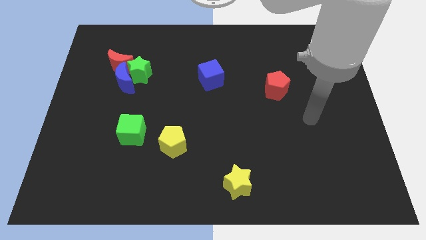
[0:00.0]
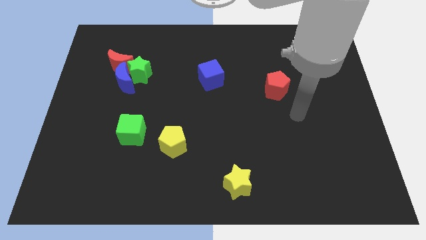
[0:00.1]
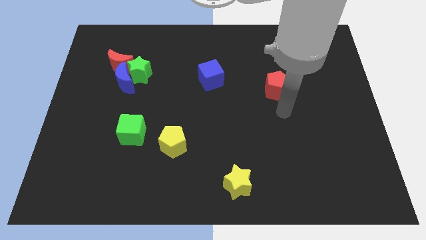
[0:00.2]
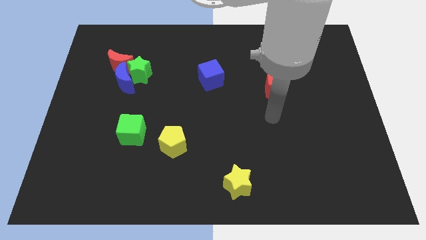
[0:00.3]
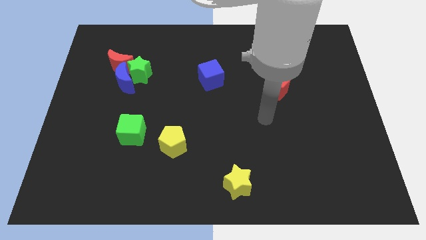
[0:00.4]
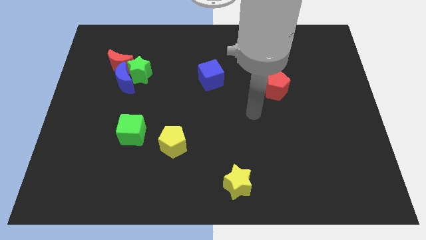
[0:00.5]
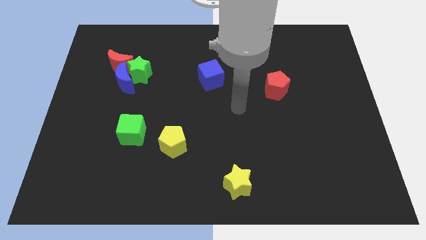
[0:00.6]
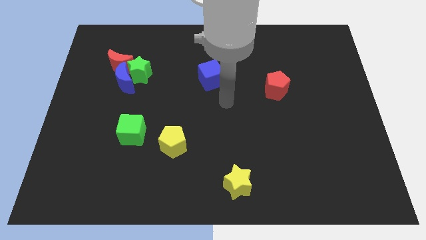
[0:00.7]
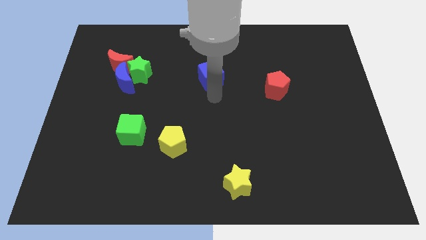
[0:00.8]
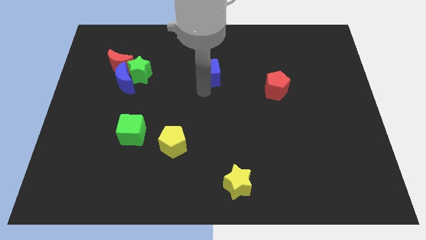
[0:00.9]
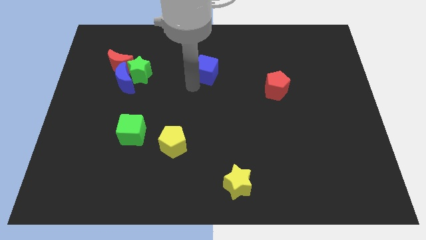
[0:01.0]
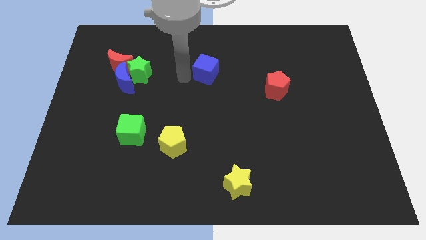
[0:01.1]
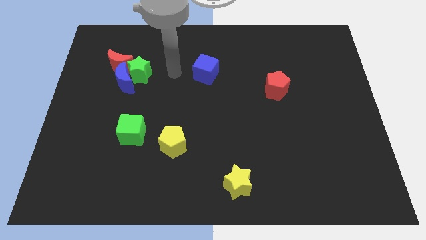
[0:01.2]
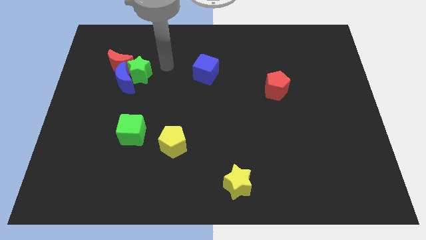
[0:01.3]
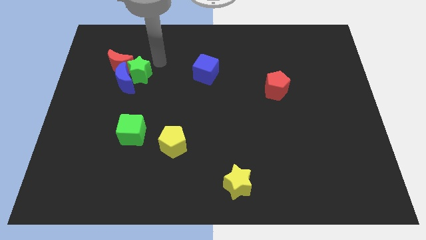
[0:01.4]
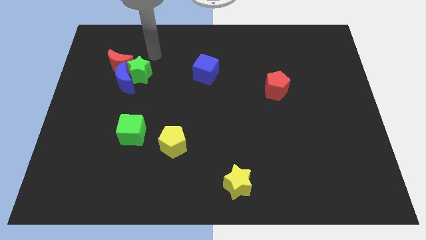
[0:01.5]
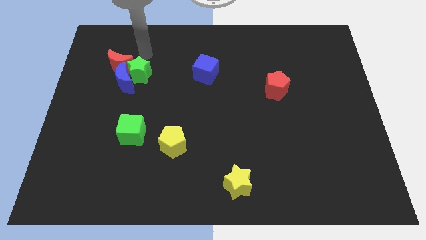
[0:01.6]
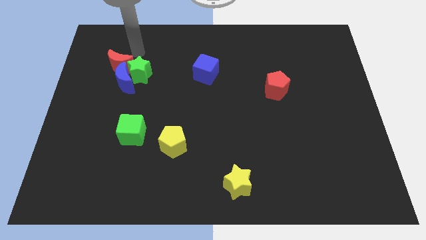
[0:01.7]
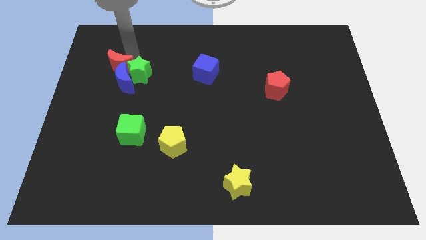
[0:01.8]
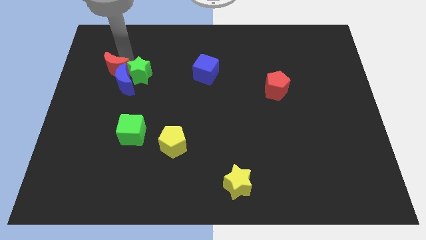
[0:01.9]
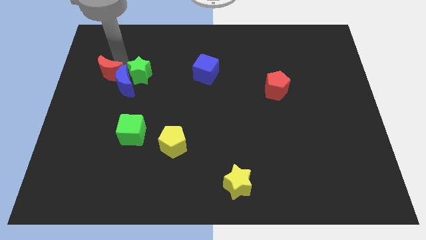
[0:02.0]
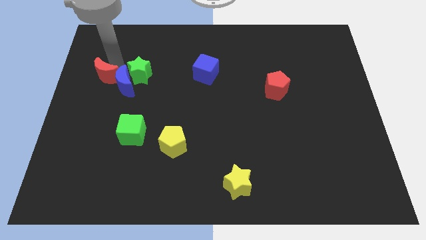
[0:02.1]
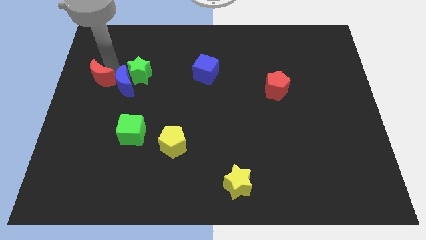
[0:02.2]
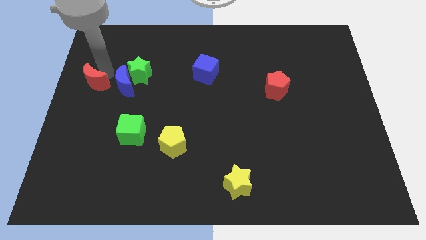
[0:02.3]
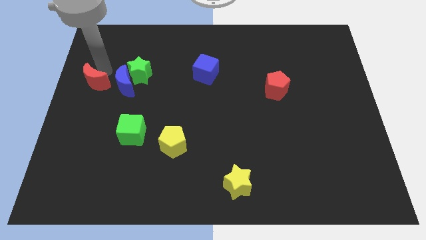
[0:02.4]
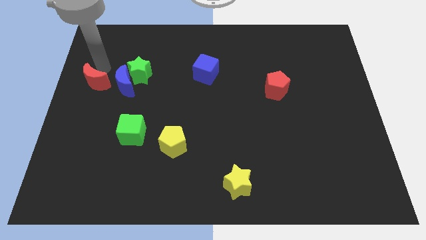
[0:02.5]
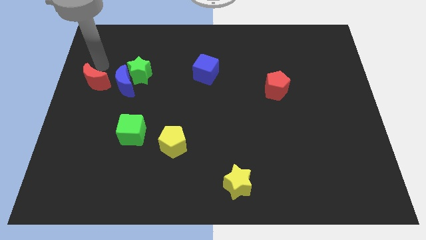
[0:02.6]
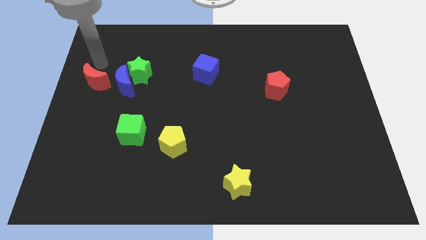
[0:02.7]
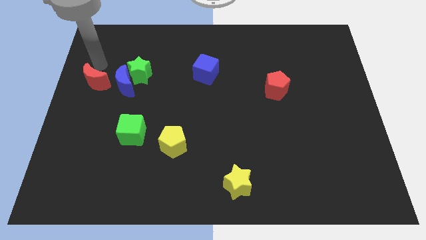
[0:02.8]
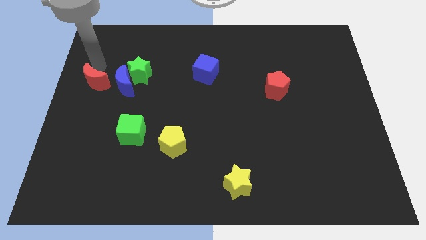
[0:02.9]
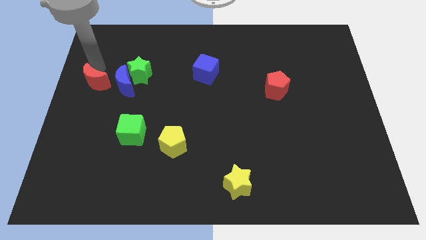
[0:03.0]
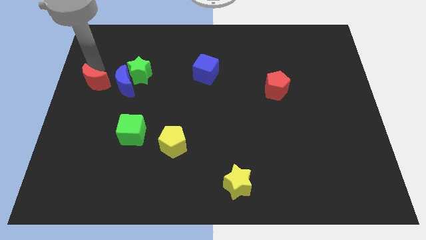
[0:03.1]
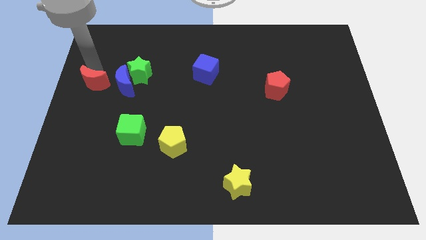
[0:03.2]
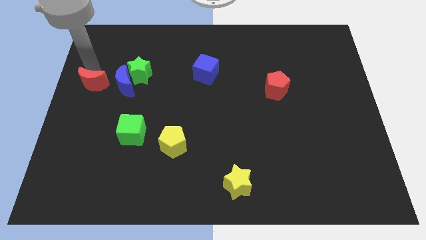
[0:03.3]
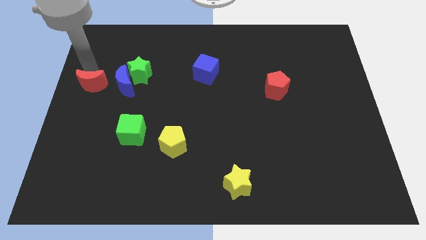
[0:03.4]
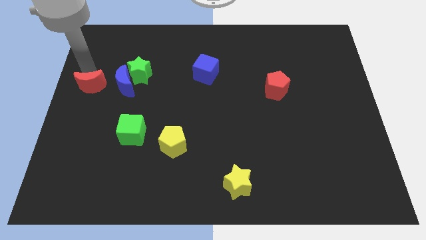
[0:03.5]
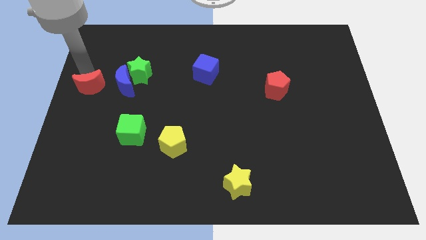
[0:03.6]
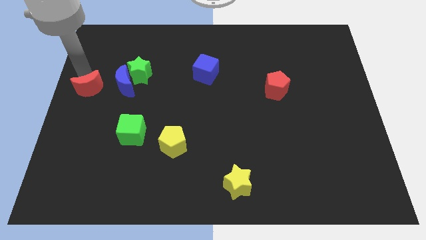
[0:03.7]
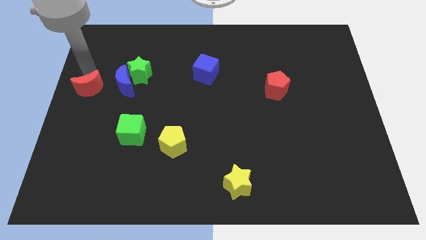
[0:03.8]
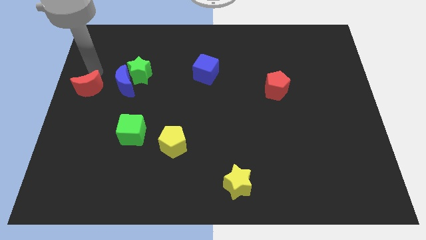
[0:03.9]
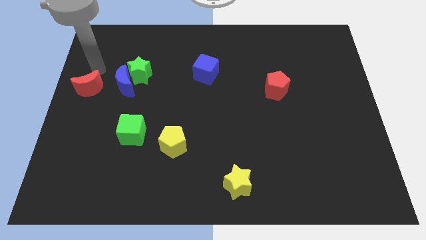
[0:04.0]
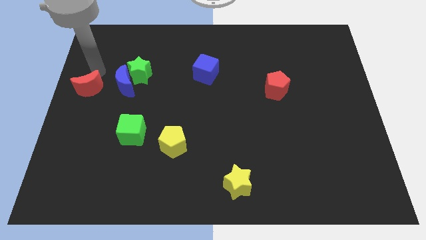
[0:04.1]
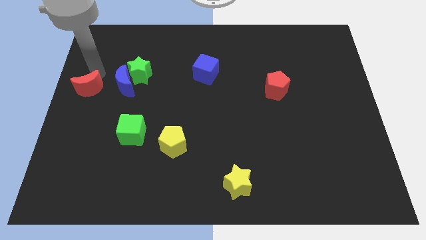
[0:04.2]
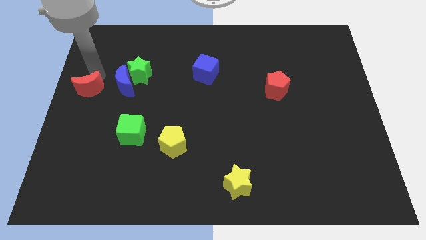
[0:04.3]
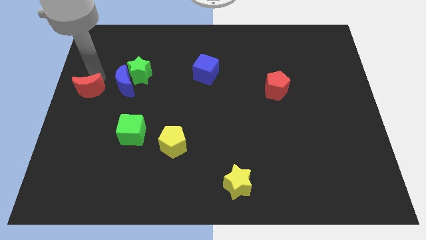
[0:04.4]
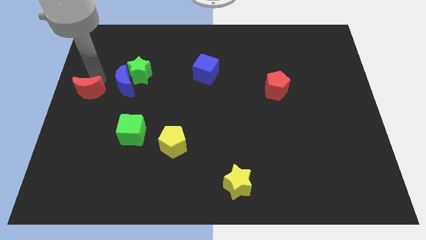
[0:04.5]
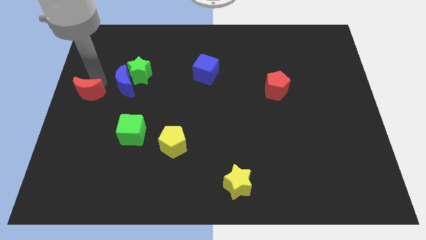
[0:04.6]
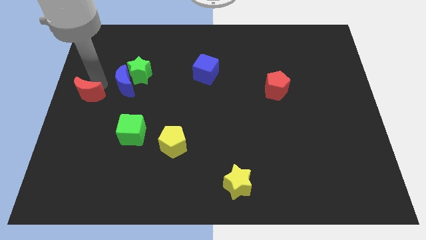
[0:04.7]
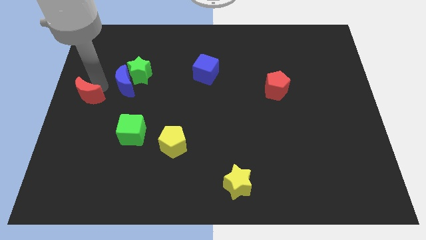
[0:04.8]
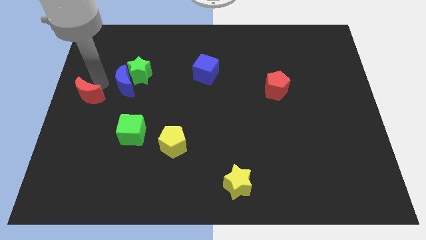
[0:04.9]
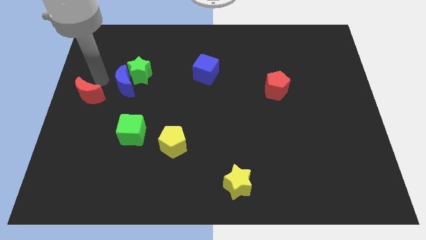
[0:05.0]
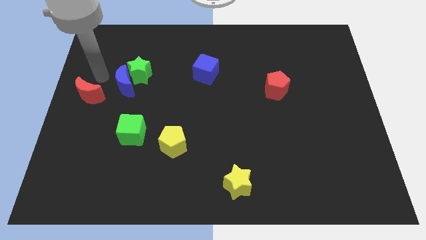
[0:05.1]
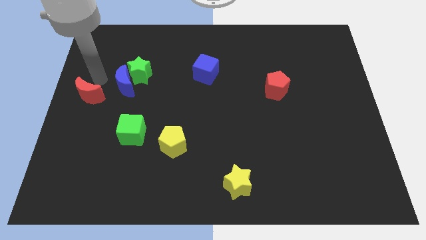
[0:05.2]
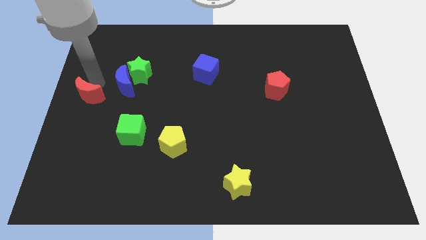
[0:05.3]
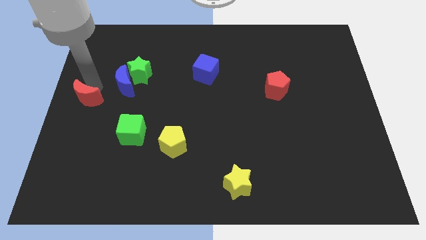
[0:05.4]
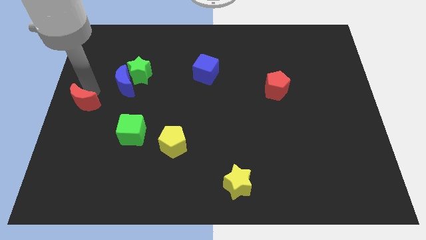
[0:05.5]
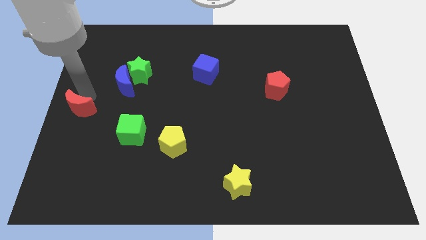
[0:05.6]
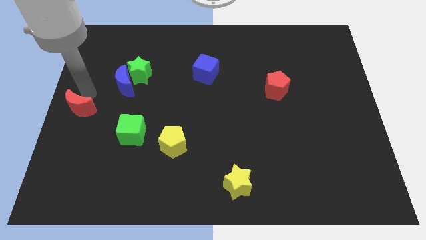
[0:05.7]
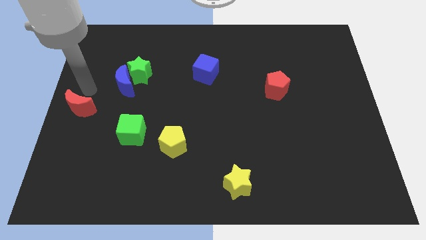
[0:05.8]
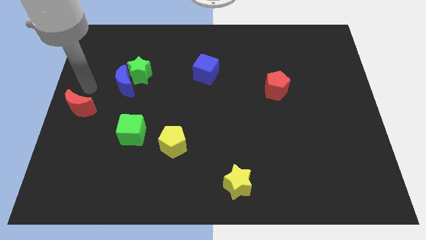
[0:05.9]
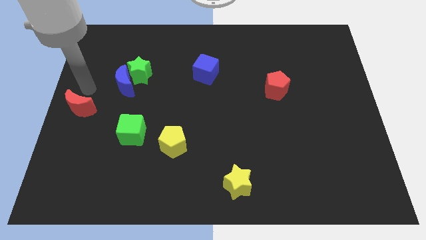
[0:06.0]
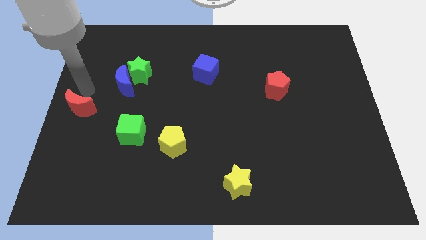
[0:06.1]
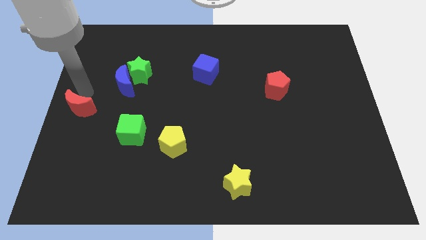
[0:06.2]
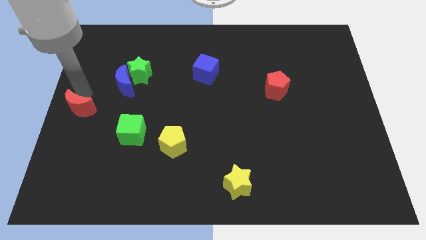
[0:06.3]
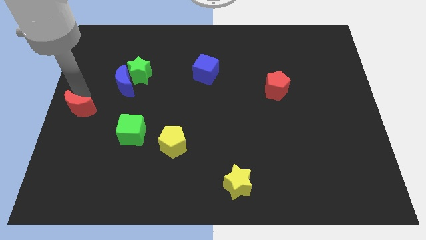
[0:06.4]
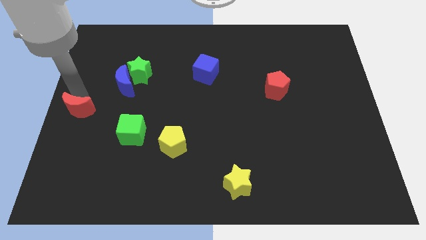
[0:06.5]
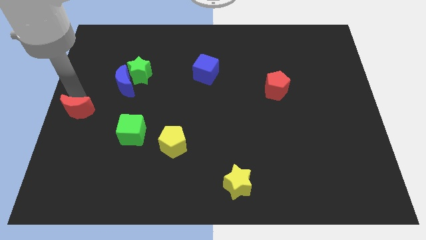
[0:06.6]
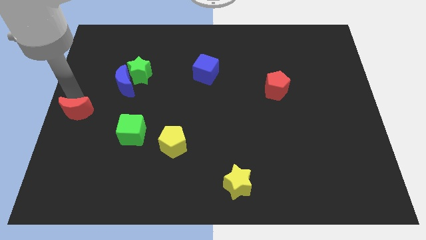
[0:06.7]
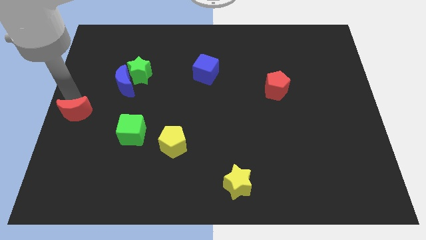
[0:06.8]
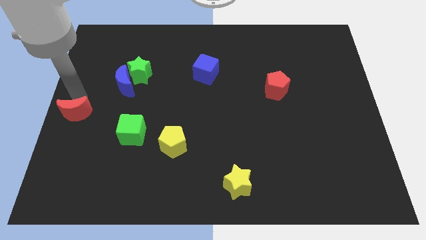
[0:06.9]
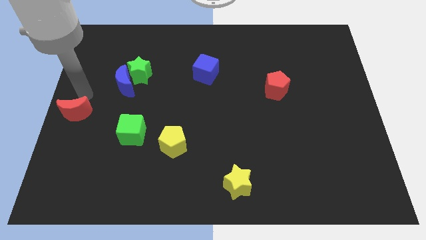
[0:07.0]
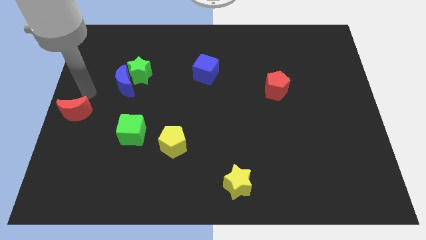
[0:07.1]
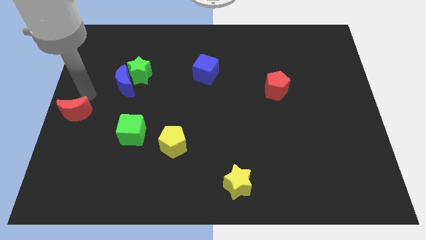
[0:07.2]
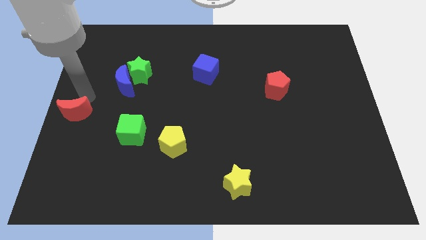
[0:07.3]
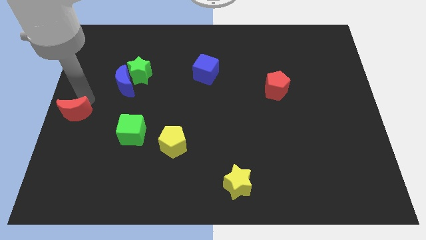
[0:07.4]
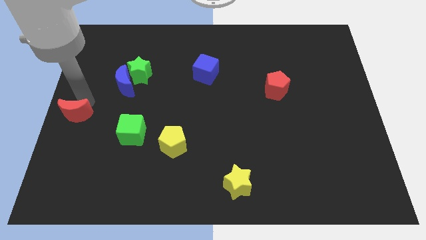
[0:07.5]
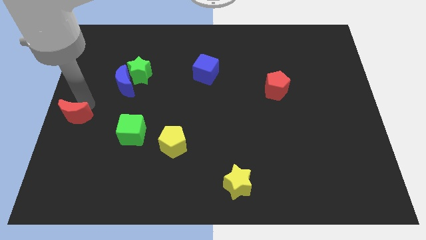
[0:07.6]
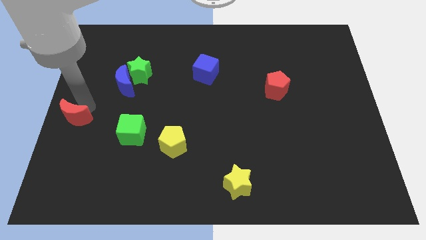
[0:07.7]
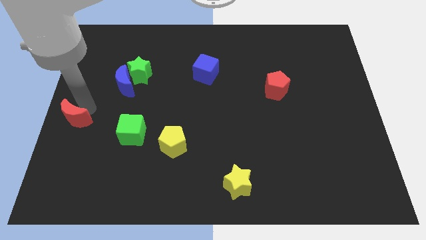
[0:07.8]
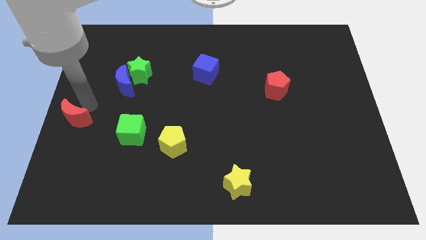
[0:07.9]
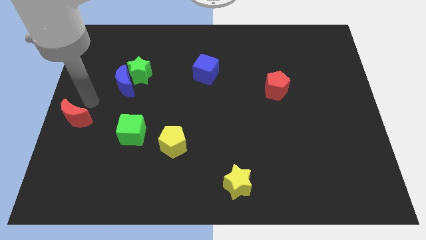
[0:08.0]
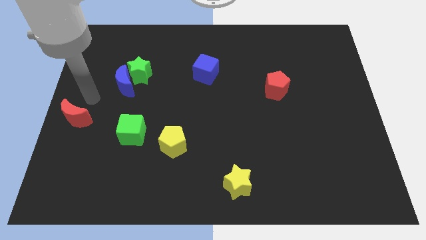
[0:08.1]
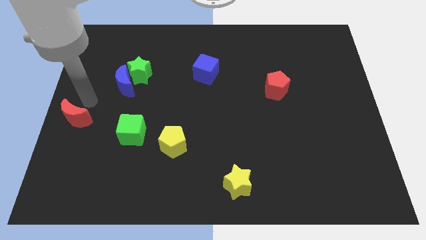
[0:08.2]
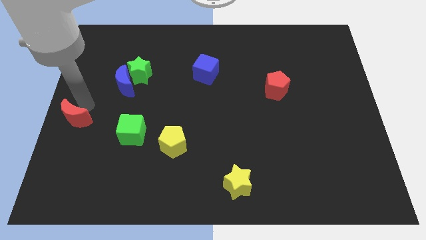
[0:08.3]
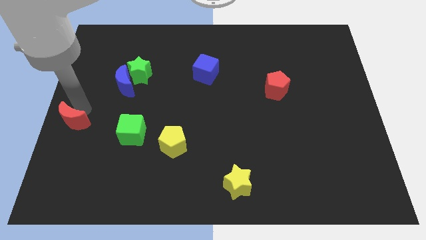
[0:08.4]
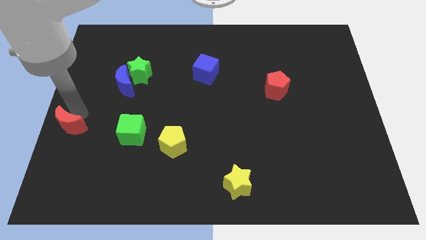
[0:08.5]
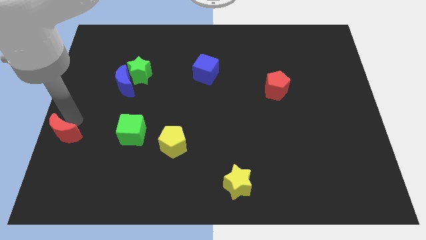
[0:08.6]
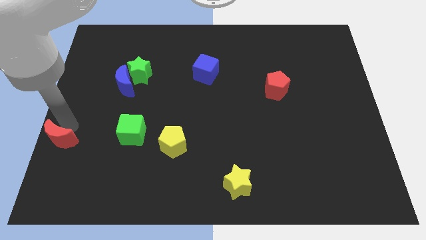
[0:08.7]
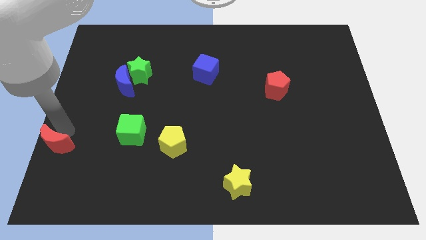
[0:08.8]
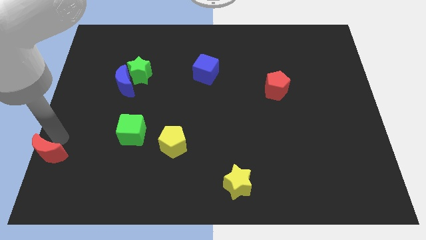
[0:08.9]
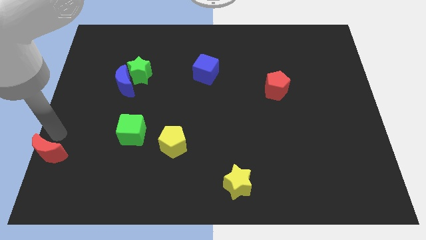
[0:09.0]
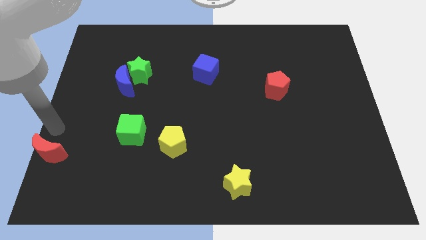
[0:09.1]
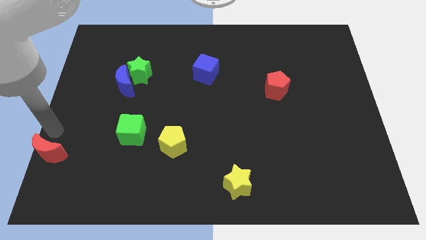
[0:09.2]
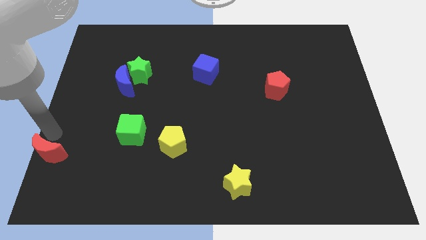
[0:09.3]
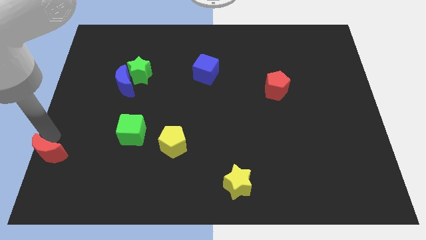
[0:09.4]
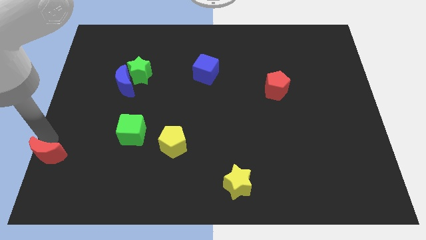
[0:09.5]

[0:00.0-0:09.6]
put the red moon to the lower left corner
